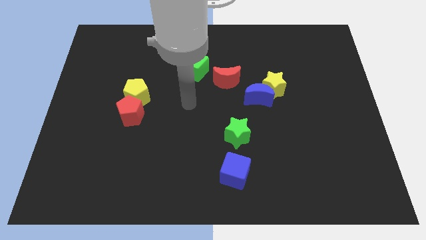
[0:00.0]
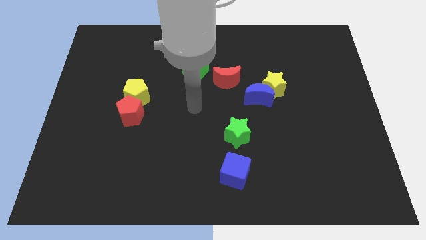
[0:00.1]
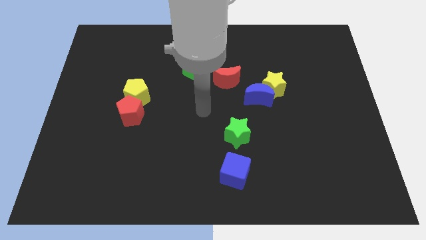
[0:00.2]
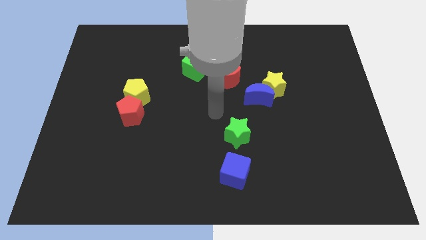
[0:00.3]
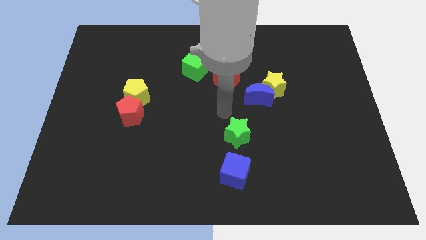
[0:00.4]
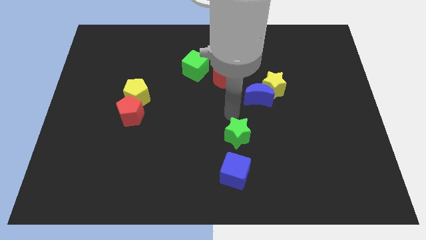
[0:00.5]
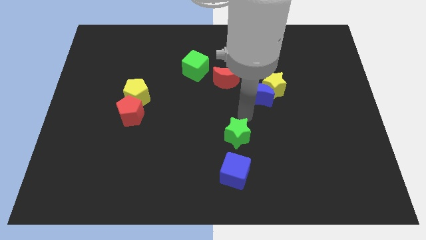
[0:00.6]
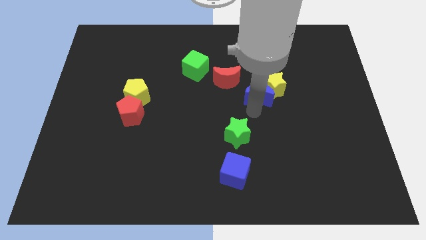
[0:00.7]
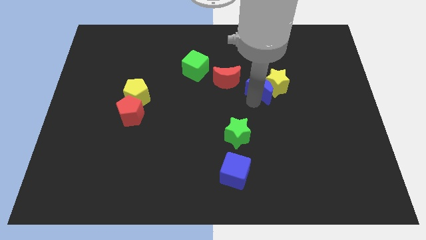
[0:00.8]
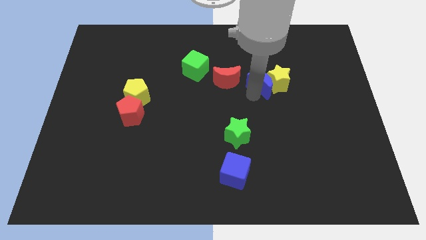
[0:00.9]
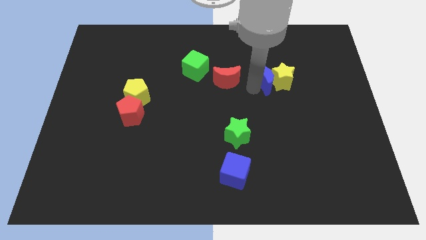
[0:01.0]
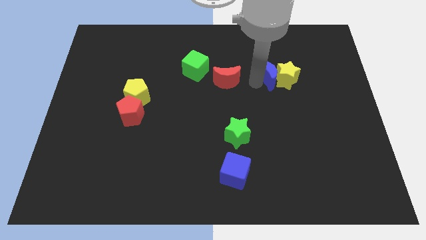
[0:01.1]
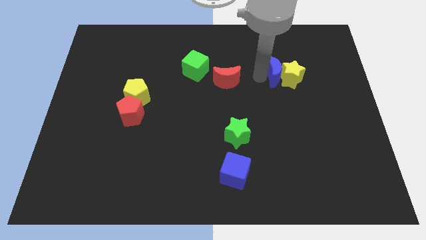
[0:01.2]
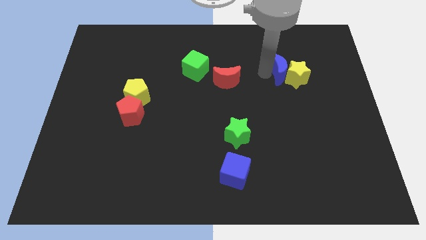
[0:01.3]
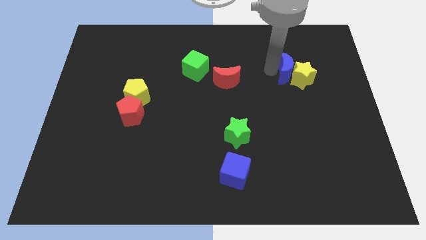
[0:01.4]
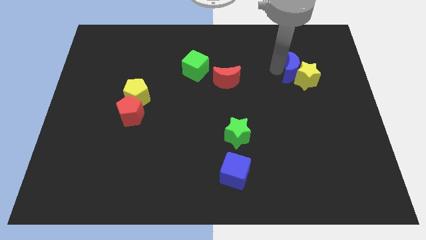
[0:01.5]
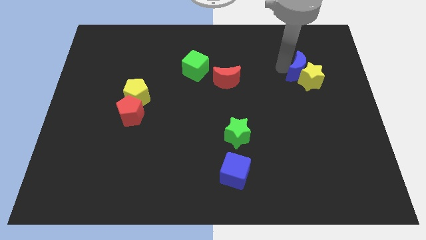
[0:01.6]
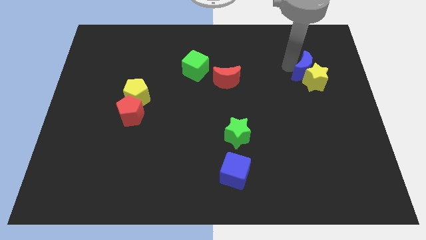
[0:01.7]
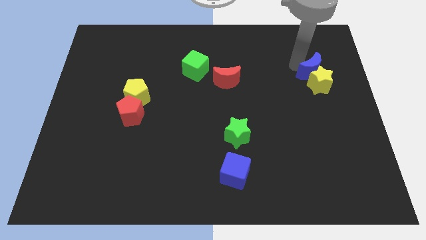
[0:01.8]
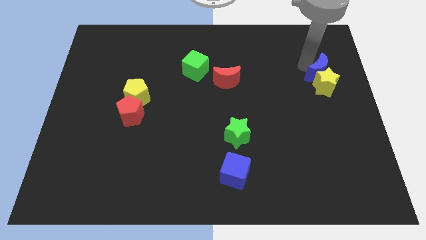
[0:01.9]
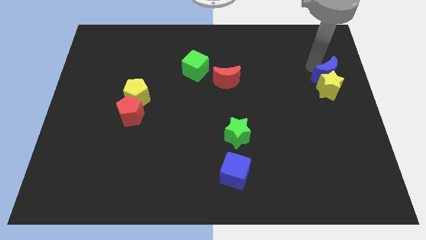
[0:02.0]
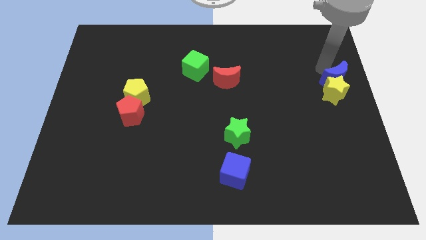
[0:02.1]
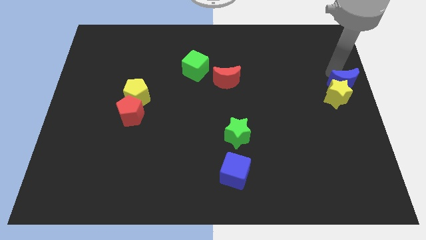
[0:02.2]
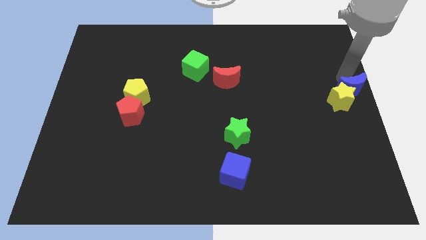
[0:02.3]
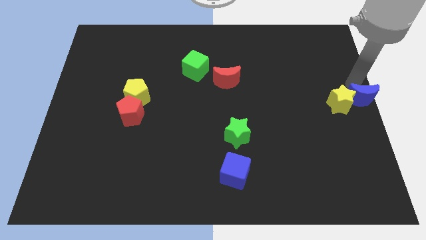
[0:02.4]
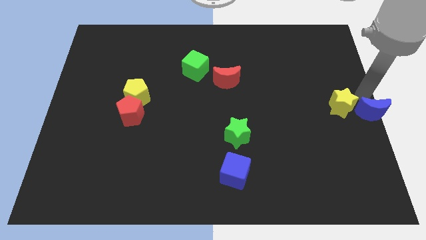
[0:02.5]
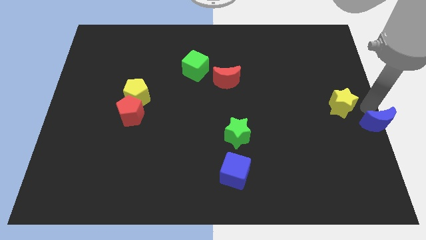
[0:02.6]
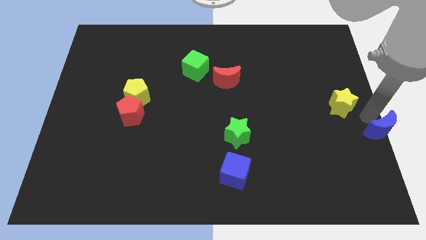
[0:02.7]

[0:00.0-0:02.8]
pull the yellow star apart from the blue moon

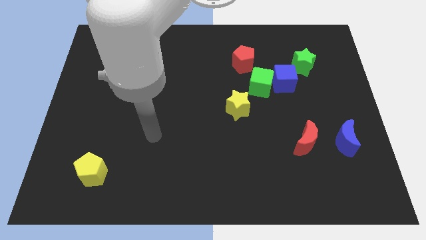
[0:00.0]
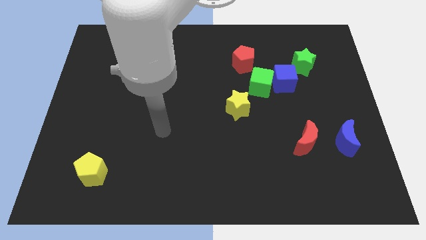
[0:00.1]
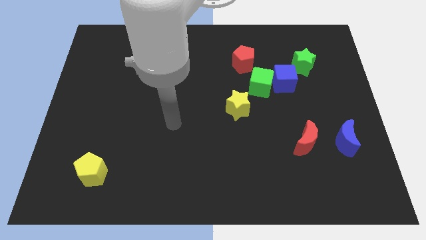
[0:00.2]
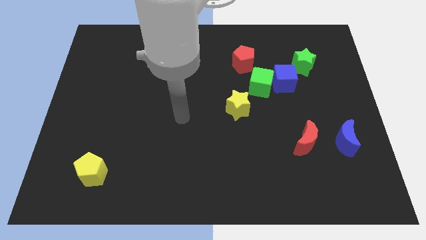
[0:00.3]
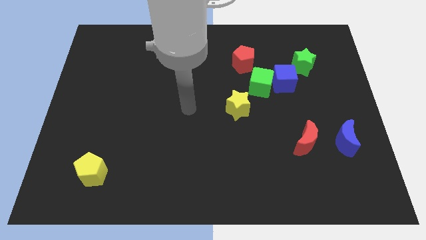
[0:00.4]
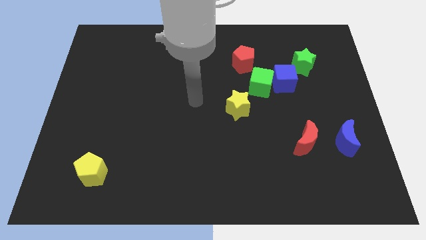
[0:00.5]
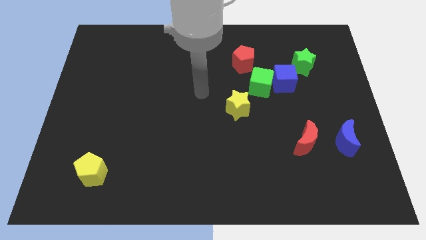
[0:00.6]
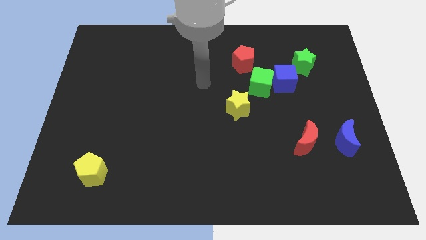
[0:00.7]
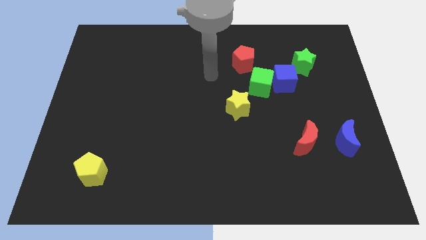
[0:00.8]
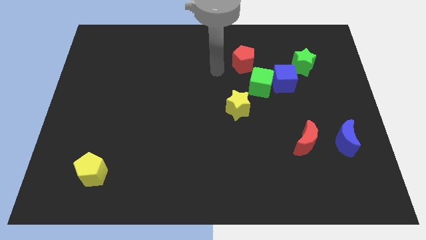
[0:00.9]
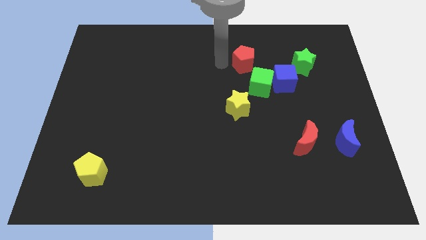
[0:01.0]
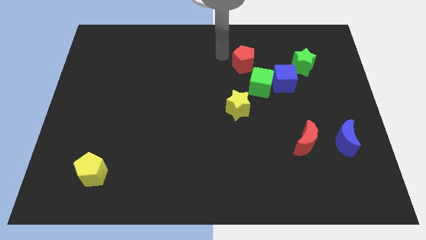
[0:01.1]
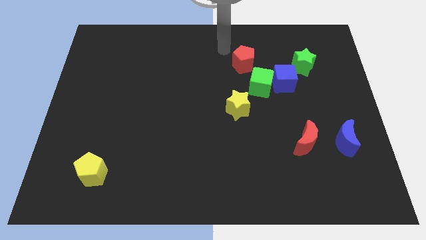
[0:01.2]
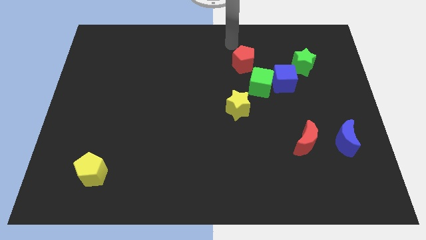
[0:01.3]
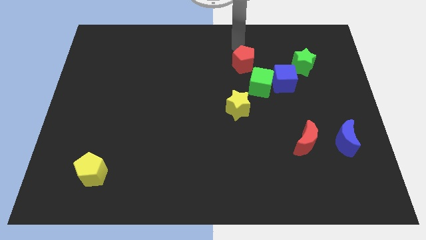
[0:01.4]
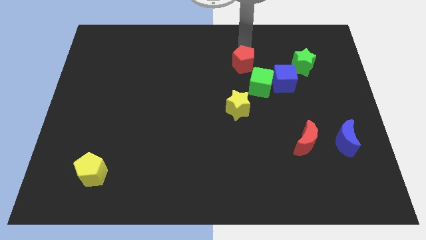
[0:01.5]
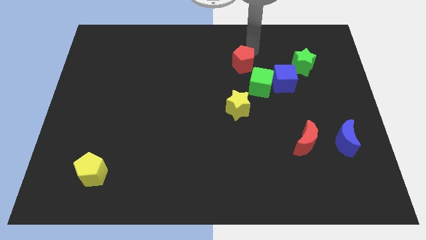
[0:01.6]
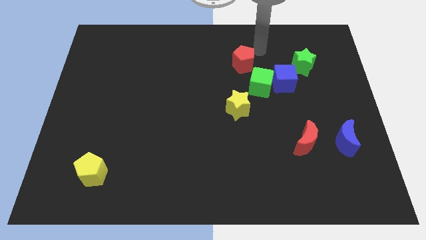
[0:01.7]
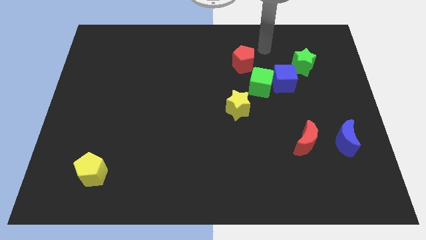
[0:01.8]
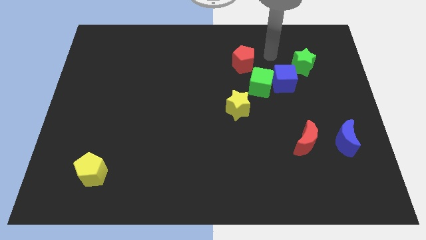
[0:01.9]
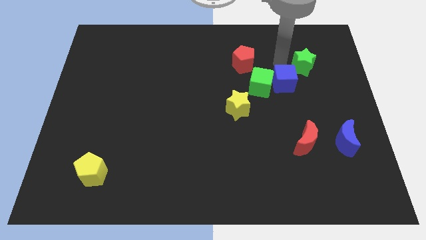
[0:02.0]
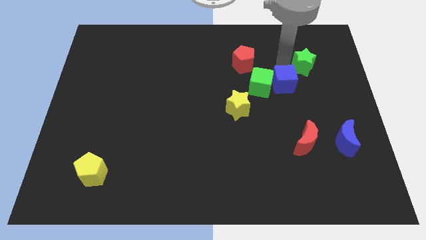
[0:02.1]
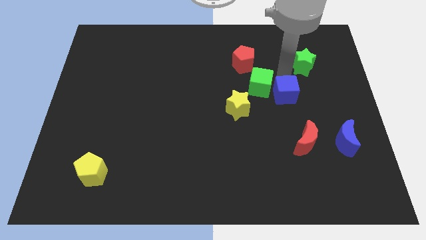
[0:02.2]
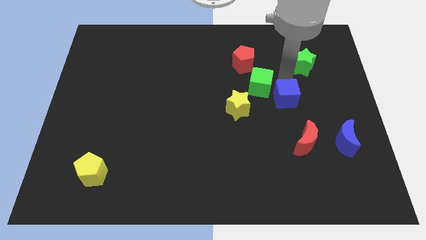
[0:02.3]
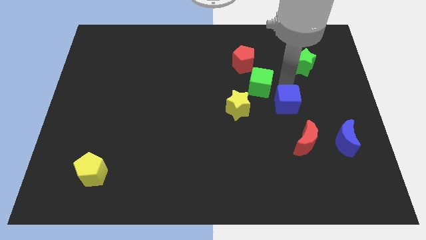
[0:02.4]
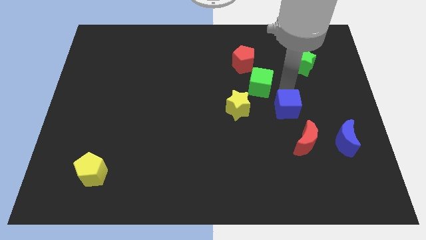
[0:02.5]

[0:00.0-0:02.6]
pull the blue cube apart from the green cube and green star

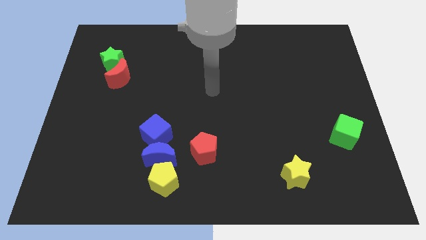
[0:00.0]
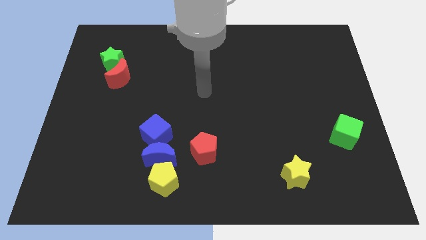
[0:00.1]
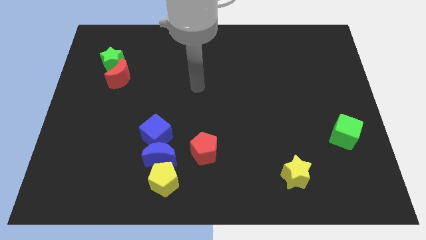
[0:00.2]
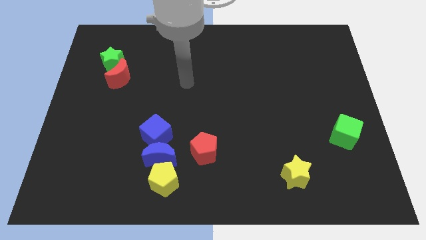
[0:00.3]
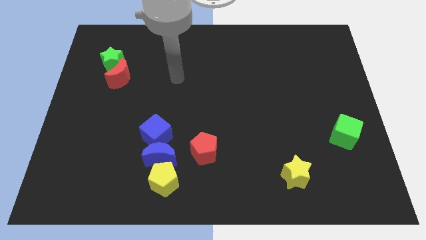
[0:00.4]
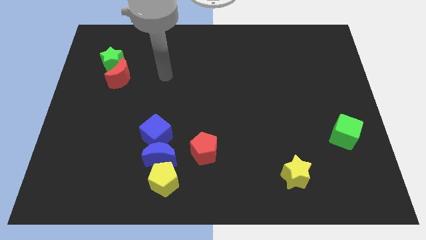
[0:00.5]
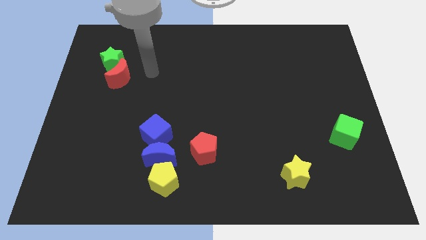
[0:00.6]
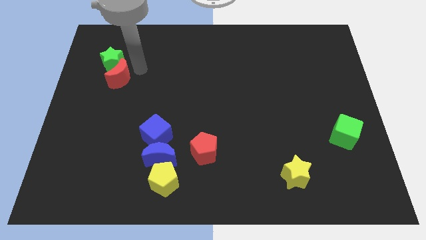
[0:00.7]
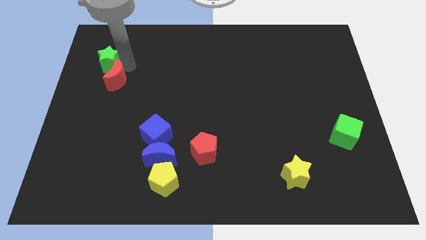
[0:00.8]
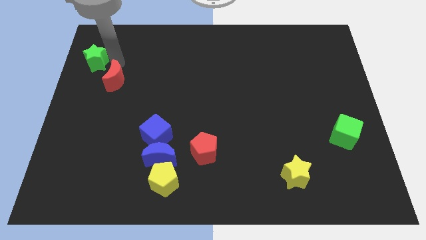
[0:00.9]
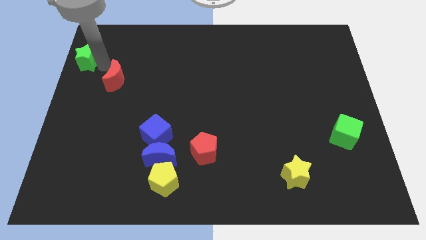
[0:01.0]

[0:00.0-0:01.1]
move the red moon away from the green star

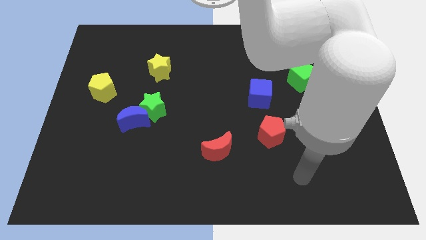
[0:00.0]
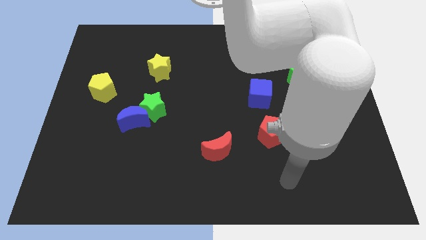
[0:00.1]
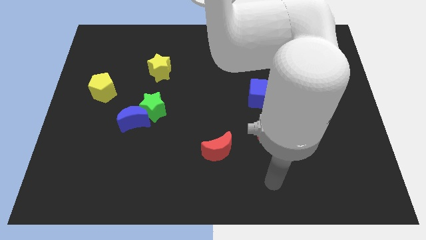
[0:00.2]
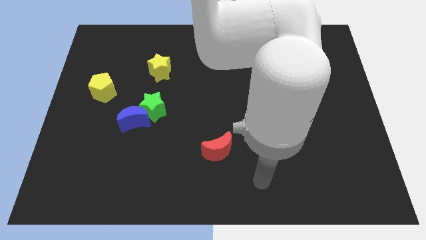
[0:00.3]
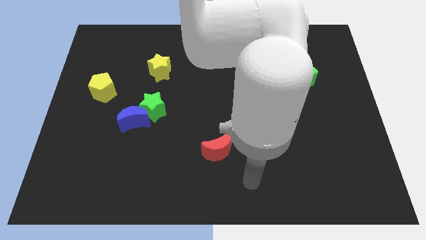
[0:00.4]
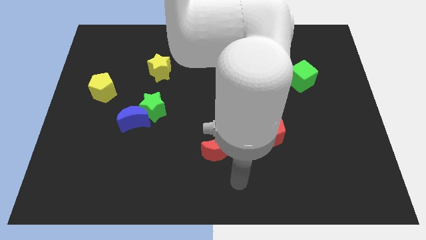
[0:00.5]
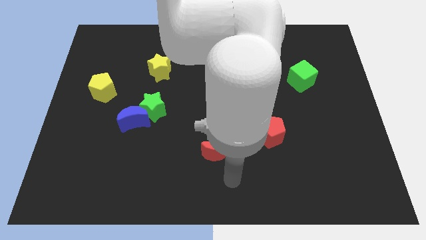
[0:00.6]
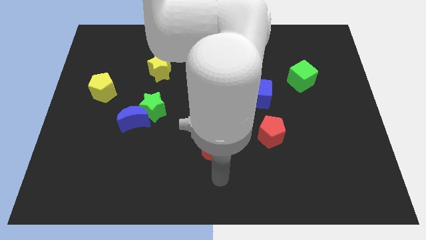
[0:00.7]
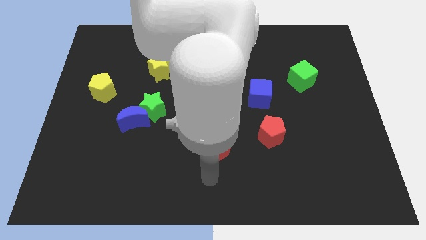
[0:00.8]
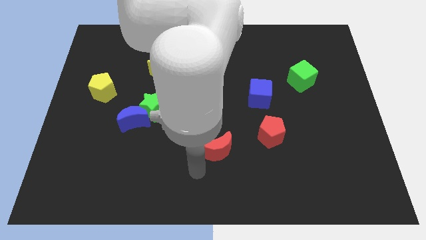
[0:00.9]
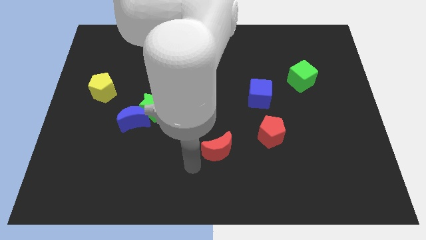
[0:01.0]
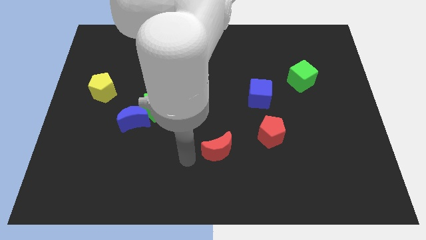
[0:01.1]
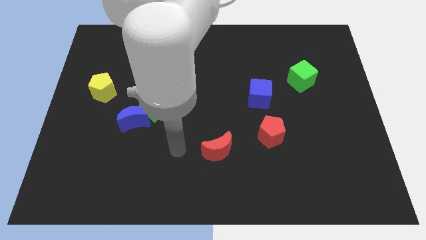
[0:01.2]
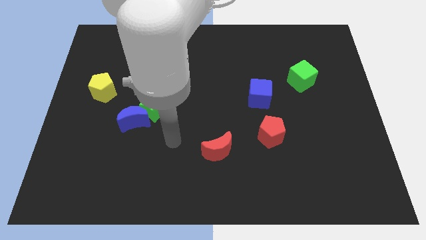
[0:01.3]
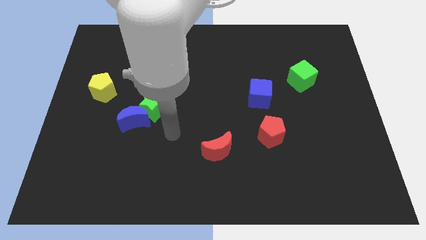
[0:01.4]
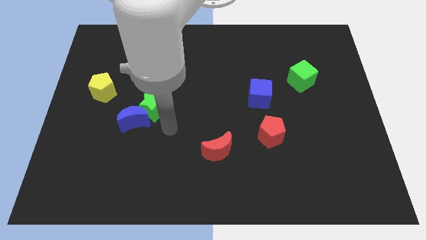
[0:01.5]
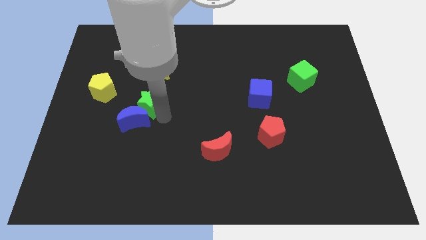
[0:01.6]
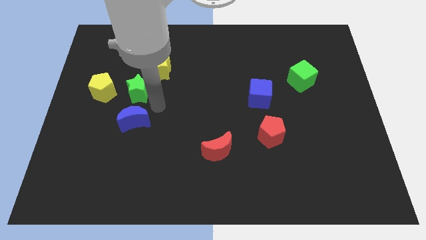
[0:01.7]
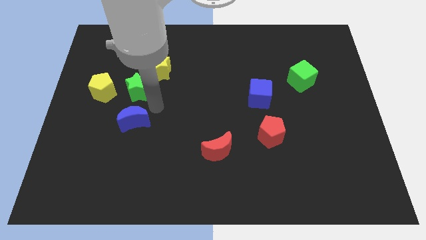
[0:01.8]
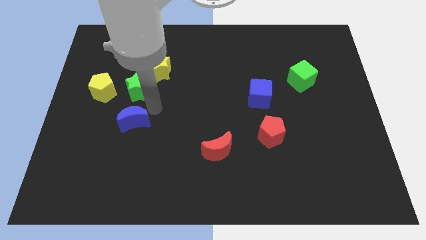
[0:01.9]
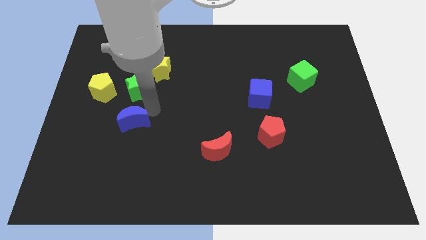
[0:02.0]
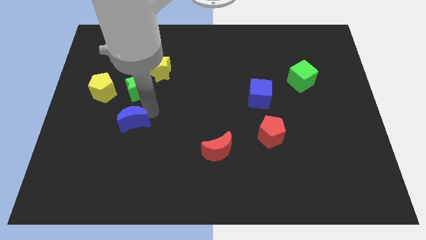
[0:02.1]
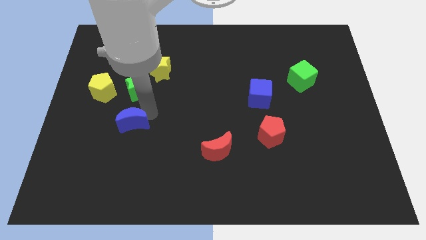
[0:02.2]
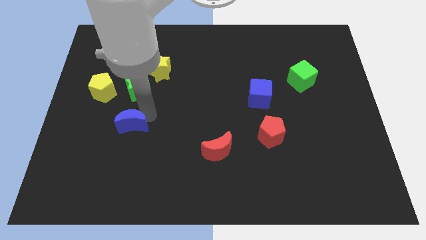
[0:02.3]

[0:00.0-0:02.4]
move the blue moon away from the green star

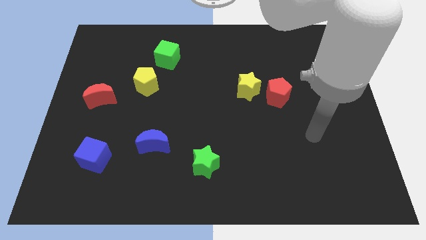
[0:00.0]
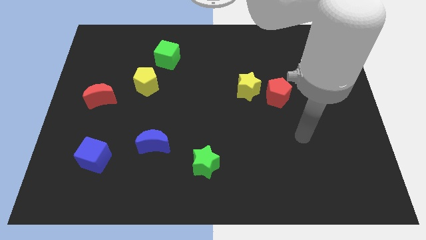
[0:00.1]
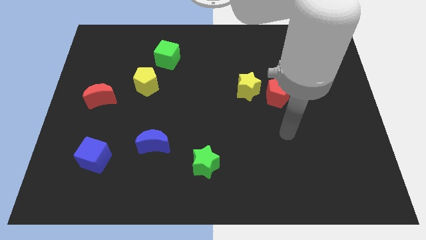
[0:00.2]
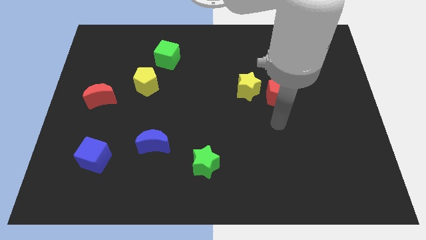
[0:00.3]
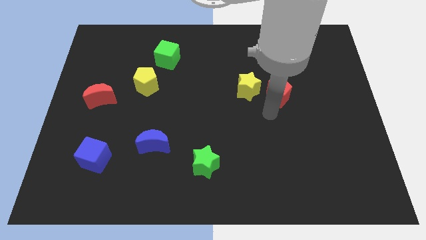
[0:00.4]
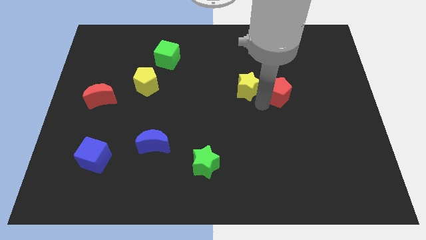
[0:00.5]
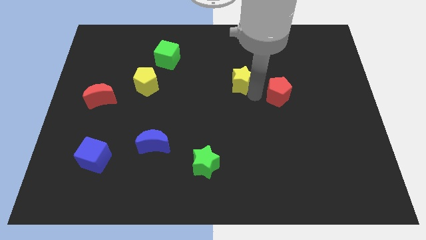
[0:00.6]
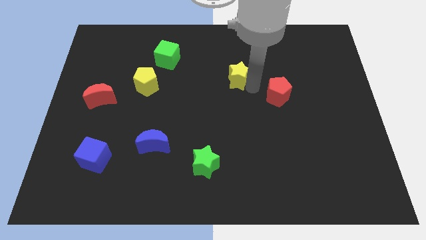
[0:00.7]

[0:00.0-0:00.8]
separate the red pentagon from the yellow star
